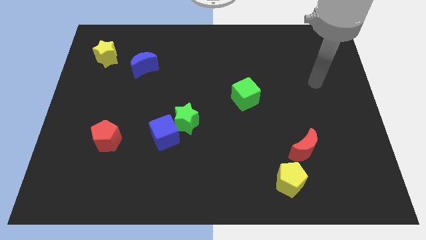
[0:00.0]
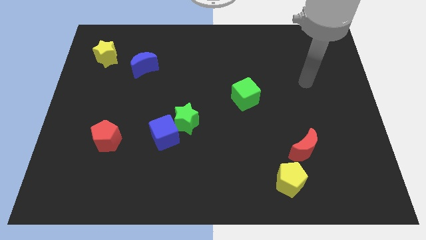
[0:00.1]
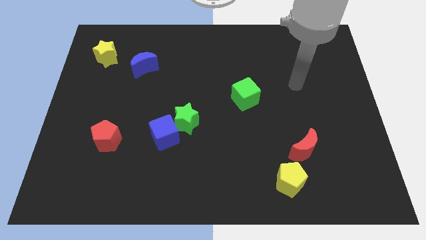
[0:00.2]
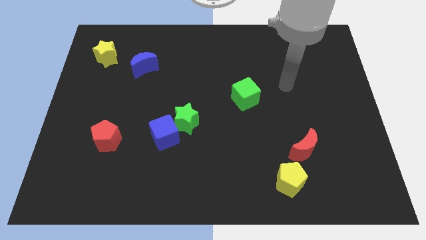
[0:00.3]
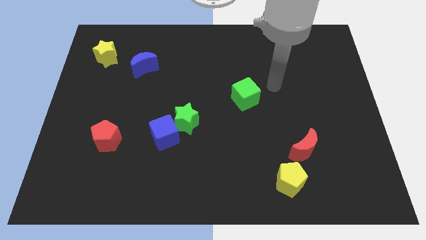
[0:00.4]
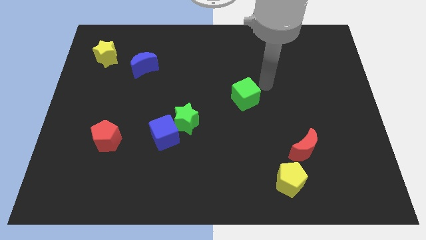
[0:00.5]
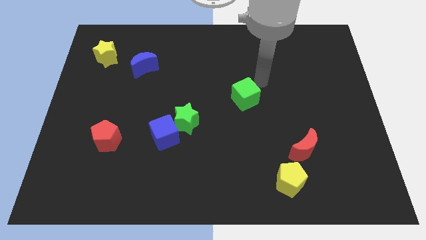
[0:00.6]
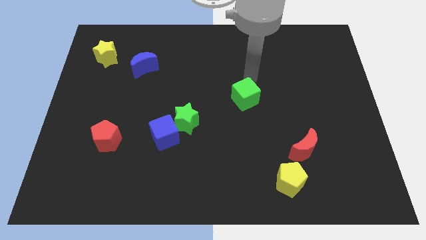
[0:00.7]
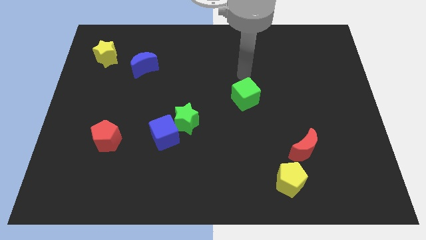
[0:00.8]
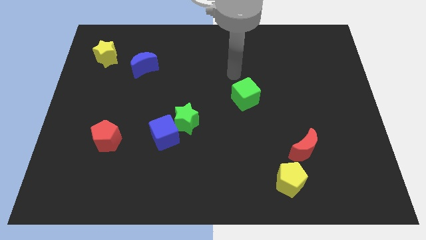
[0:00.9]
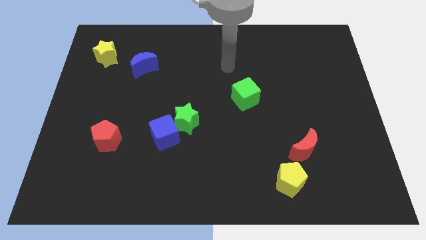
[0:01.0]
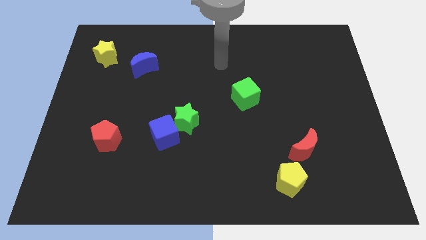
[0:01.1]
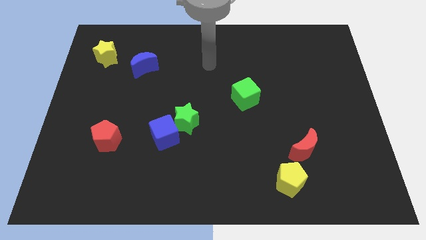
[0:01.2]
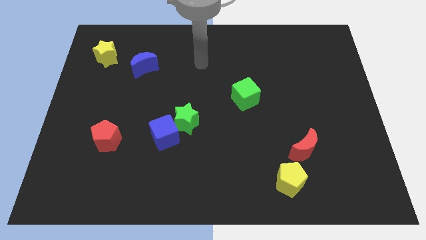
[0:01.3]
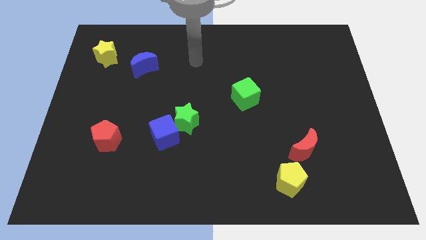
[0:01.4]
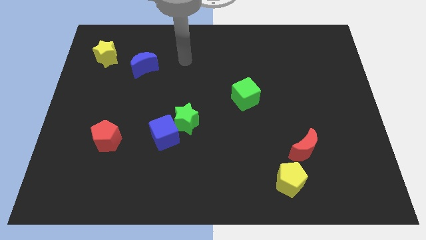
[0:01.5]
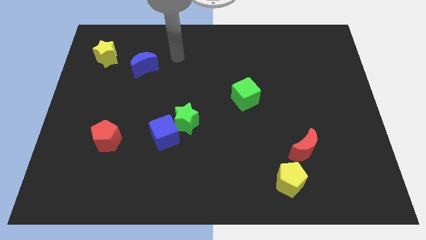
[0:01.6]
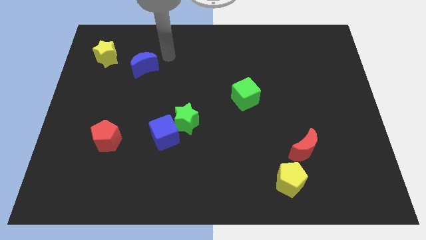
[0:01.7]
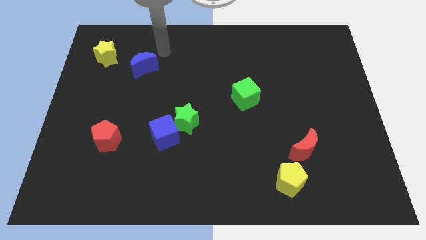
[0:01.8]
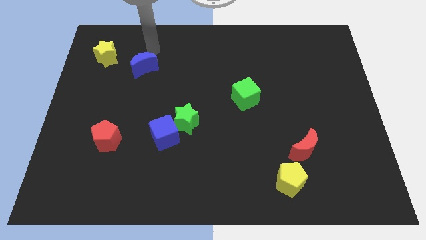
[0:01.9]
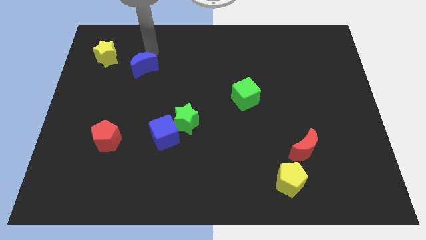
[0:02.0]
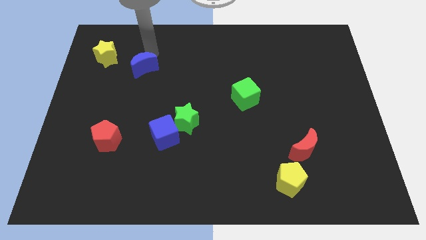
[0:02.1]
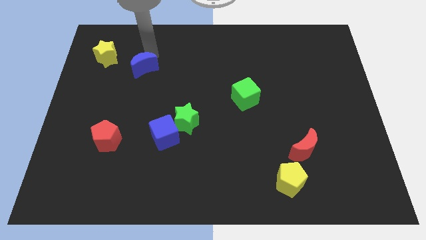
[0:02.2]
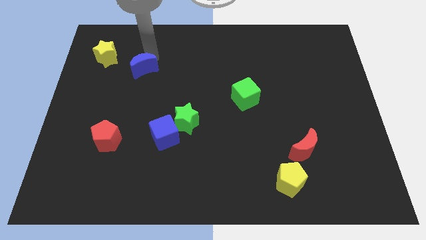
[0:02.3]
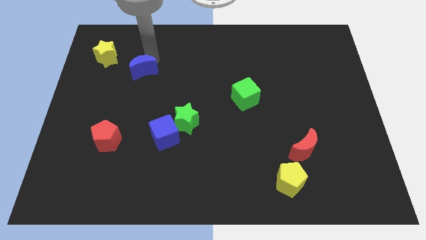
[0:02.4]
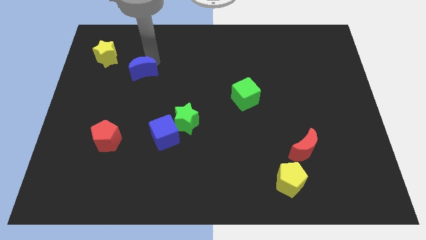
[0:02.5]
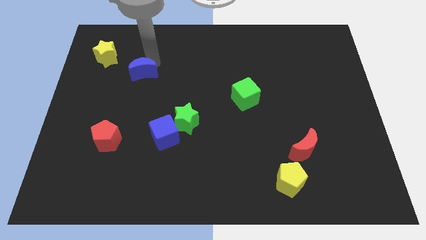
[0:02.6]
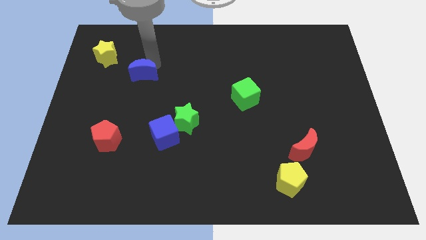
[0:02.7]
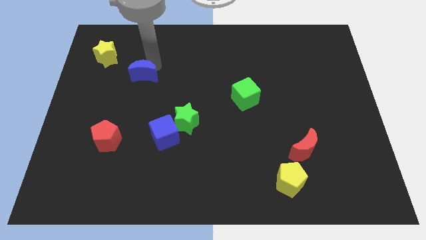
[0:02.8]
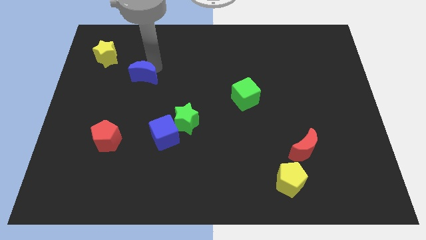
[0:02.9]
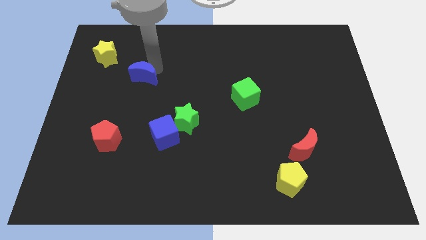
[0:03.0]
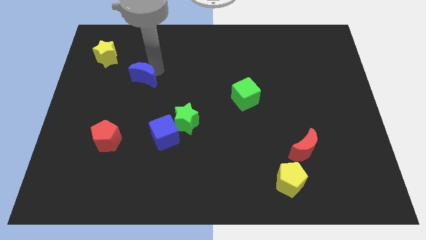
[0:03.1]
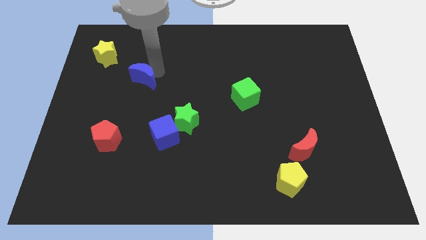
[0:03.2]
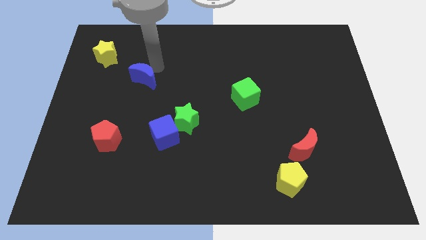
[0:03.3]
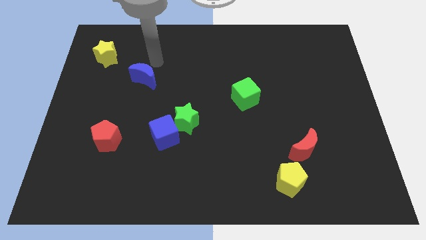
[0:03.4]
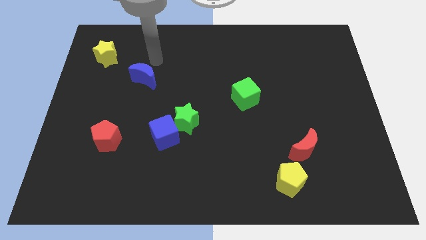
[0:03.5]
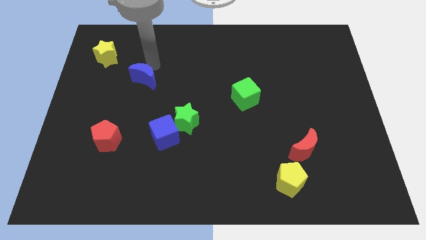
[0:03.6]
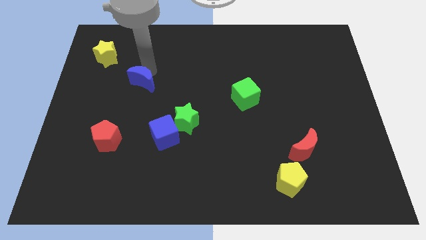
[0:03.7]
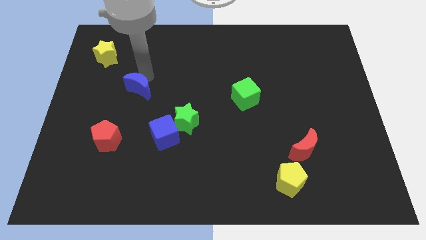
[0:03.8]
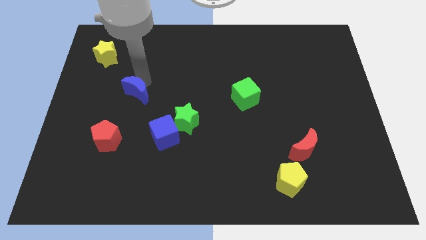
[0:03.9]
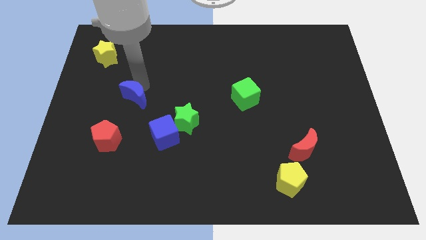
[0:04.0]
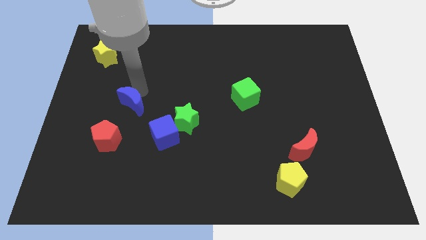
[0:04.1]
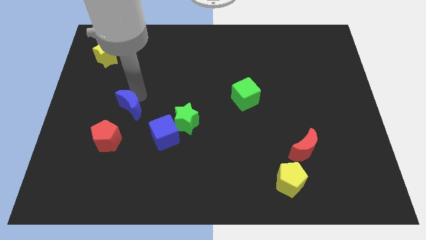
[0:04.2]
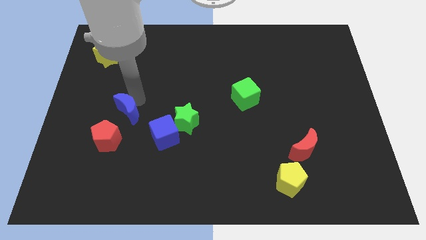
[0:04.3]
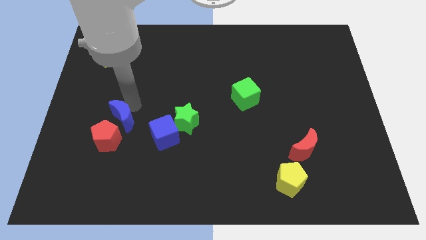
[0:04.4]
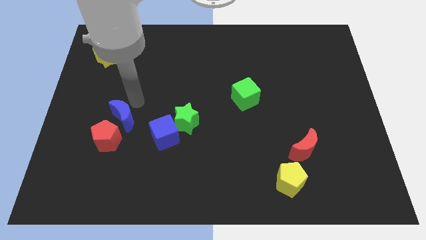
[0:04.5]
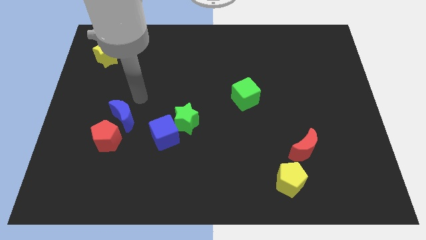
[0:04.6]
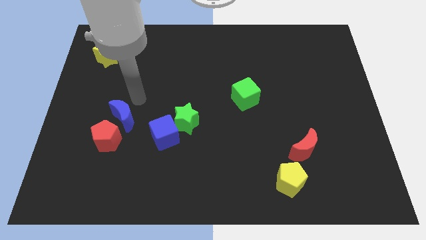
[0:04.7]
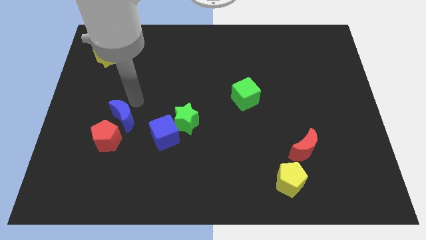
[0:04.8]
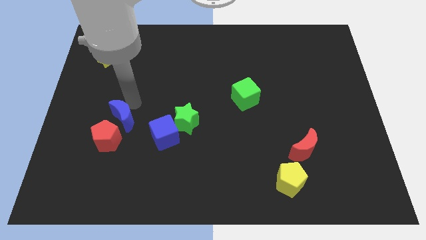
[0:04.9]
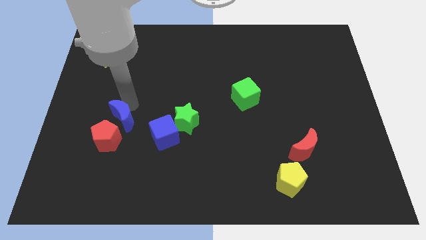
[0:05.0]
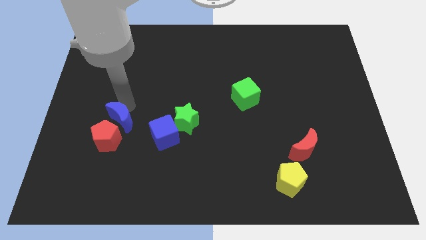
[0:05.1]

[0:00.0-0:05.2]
push the blue moon next to the red pentagon
